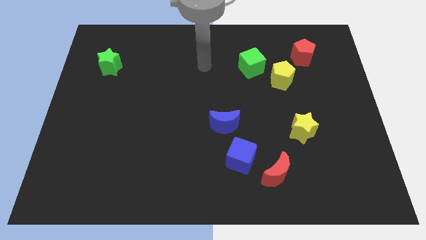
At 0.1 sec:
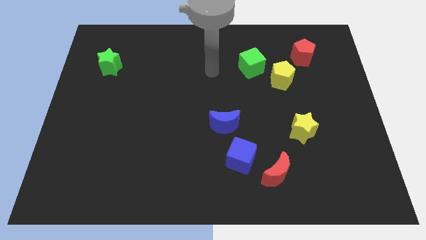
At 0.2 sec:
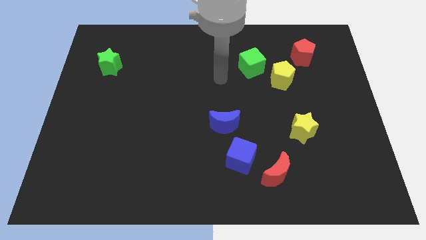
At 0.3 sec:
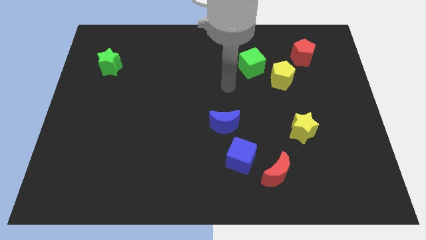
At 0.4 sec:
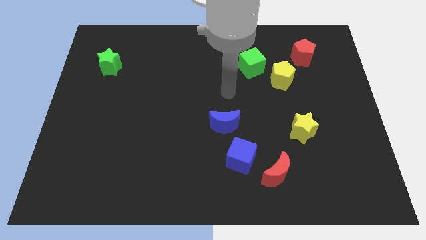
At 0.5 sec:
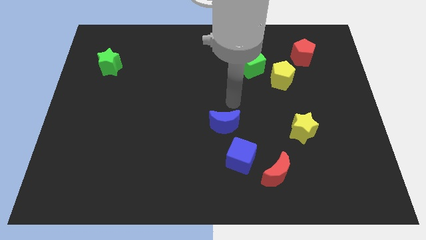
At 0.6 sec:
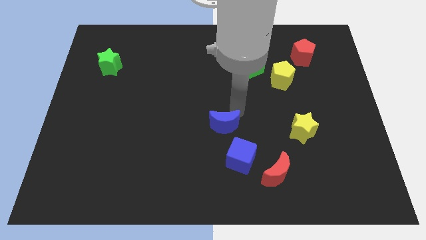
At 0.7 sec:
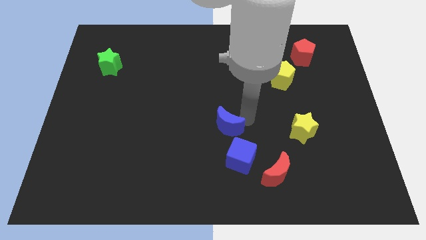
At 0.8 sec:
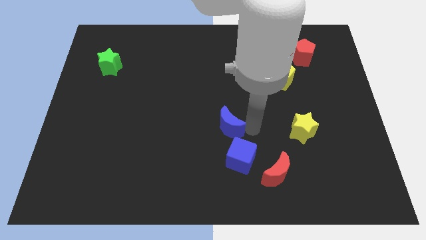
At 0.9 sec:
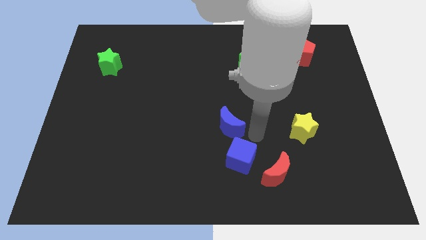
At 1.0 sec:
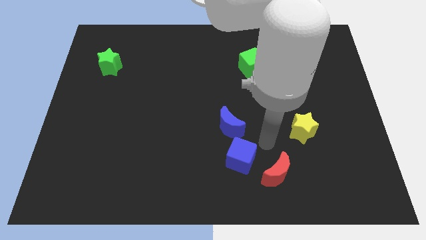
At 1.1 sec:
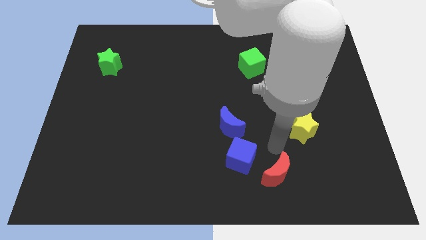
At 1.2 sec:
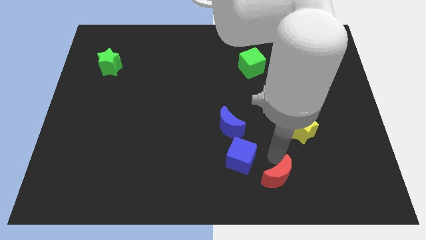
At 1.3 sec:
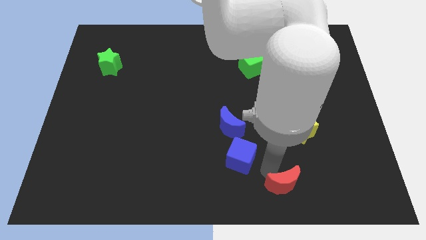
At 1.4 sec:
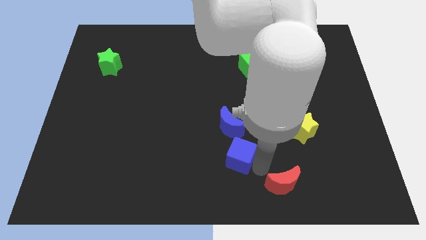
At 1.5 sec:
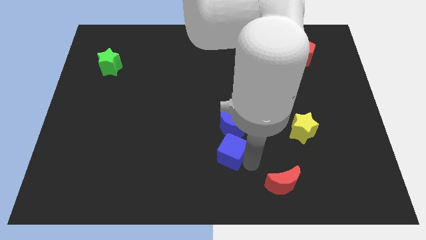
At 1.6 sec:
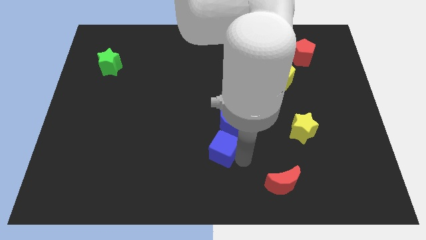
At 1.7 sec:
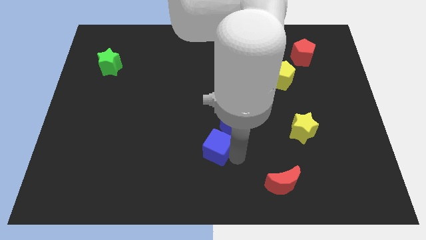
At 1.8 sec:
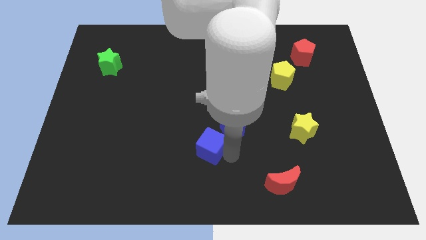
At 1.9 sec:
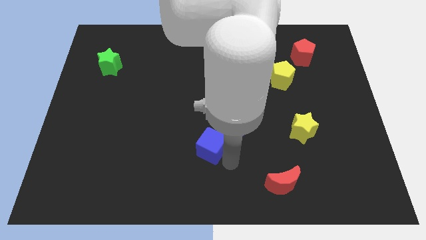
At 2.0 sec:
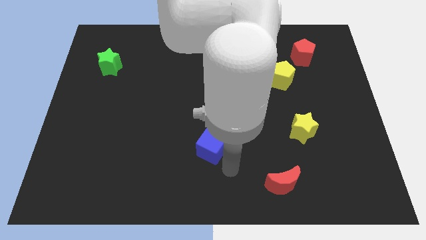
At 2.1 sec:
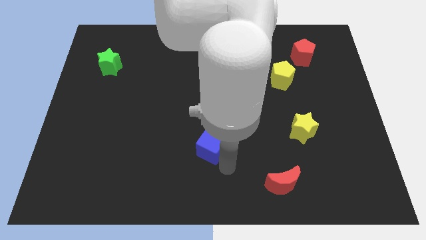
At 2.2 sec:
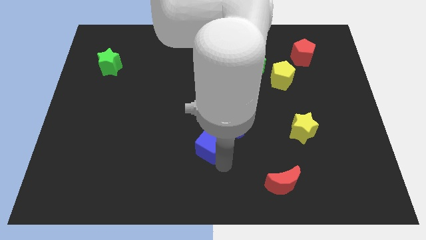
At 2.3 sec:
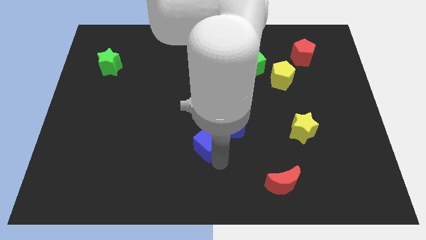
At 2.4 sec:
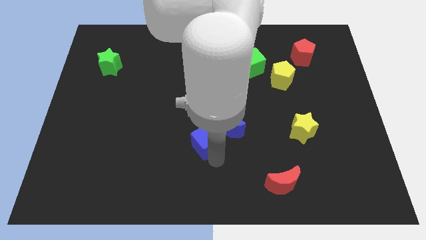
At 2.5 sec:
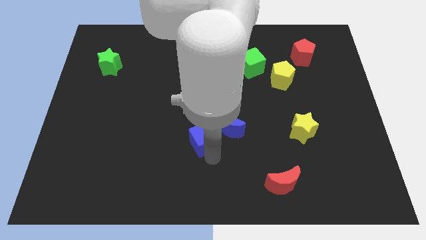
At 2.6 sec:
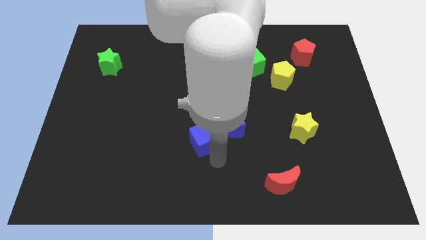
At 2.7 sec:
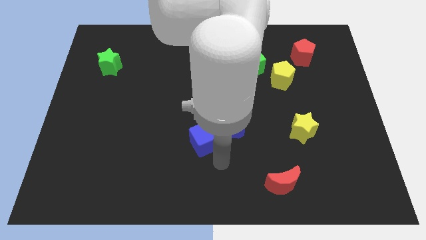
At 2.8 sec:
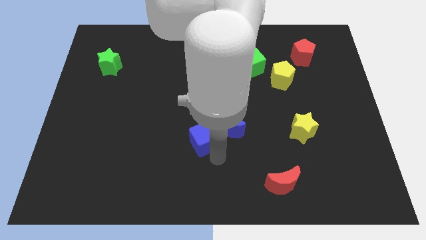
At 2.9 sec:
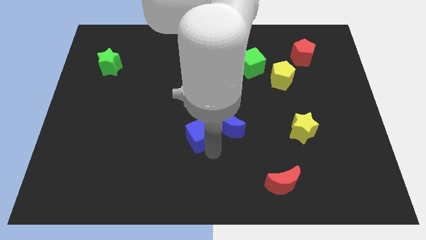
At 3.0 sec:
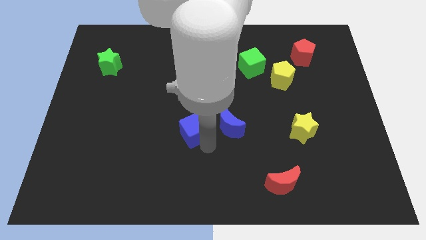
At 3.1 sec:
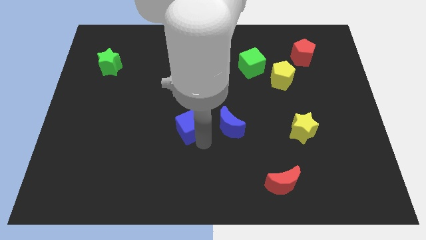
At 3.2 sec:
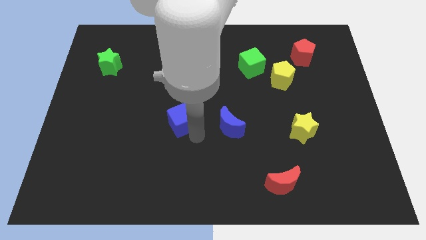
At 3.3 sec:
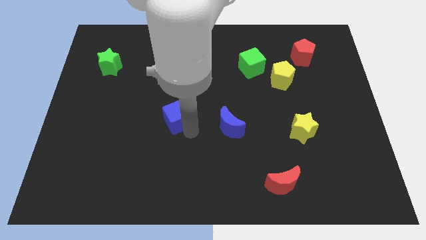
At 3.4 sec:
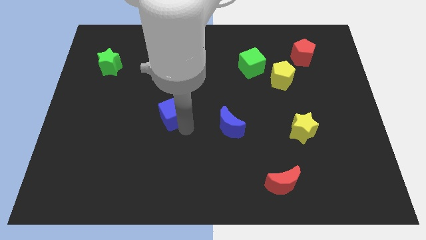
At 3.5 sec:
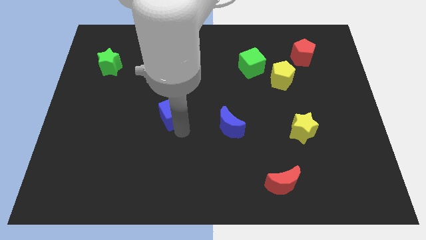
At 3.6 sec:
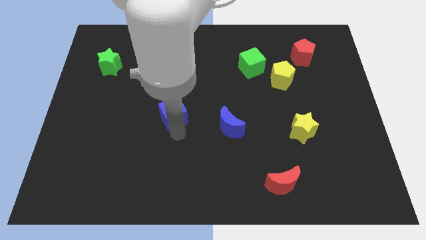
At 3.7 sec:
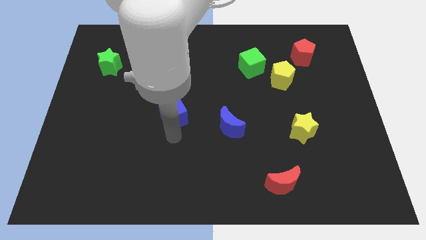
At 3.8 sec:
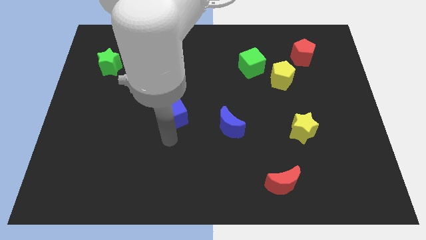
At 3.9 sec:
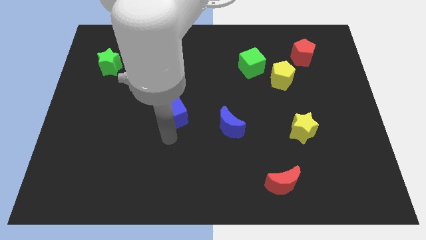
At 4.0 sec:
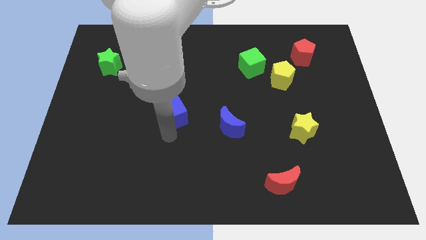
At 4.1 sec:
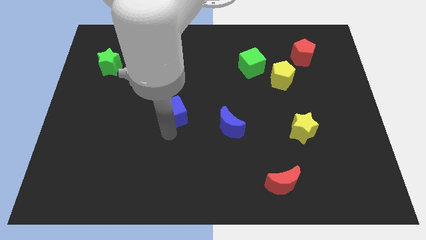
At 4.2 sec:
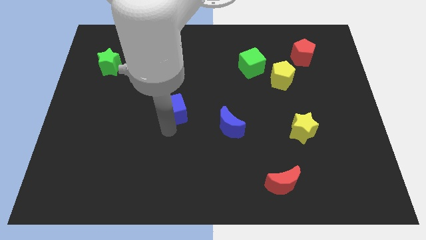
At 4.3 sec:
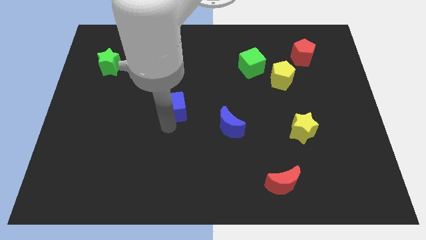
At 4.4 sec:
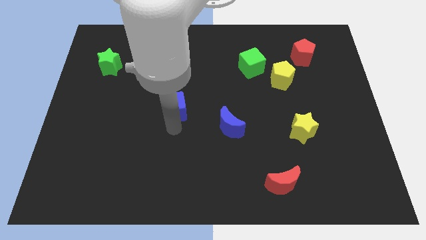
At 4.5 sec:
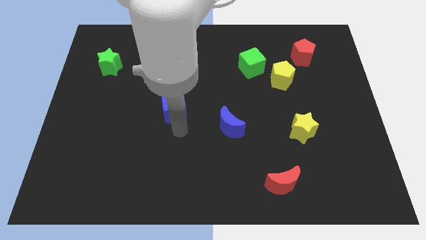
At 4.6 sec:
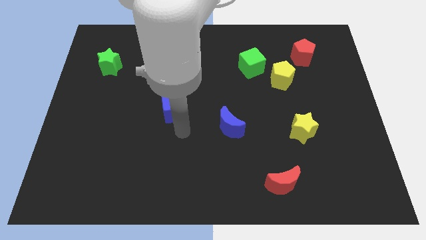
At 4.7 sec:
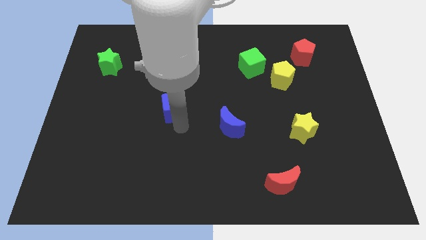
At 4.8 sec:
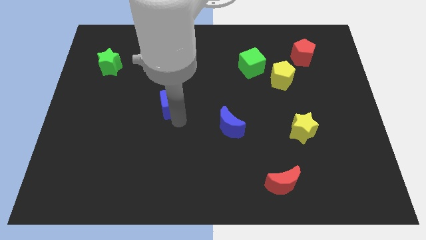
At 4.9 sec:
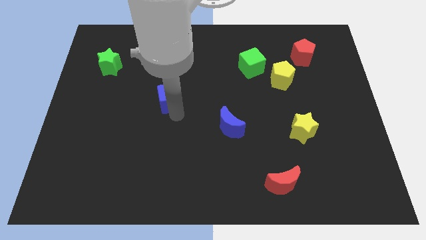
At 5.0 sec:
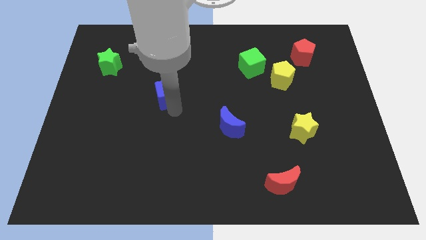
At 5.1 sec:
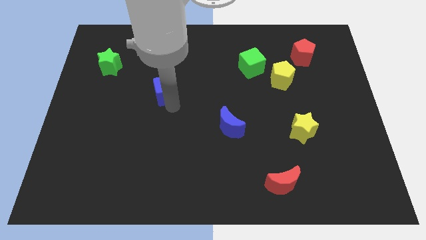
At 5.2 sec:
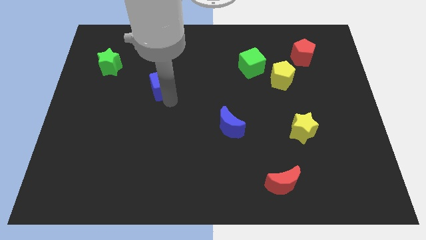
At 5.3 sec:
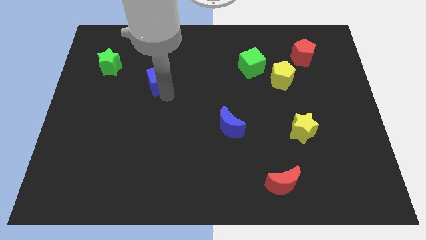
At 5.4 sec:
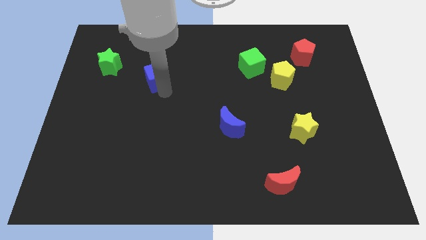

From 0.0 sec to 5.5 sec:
push the blue cube to the right of the green star

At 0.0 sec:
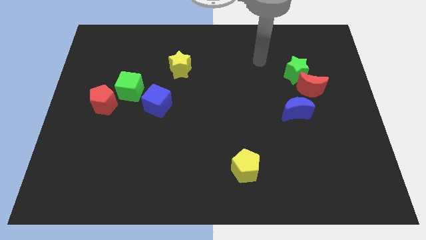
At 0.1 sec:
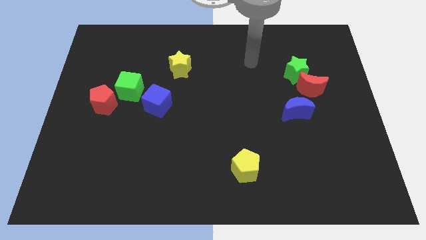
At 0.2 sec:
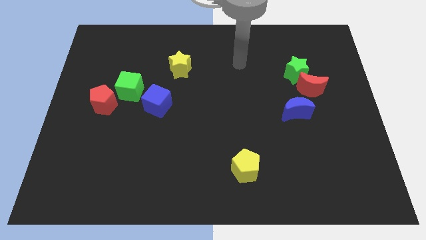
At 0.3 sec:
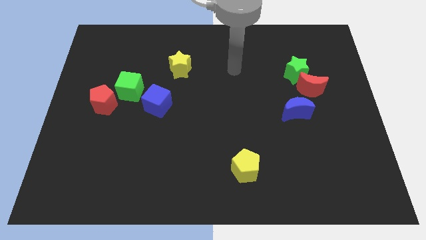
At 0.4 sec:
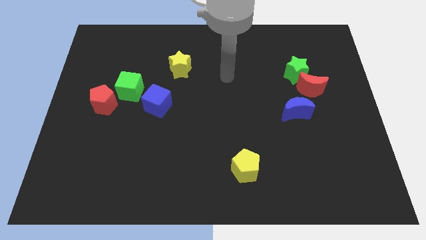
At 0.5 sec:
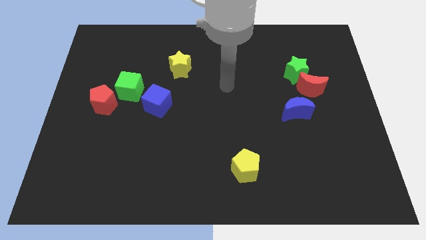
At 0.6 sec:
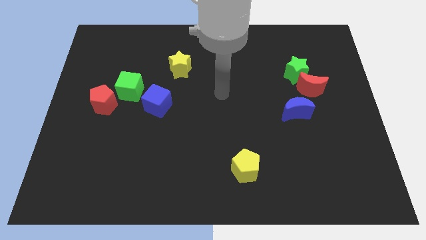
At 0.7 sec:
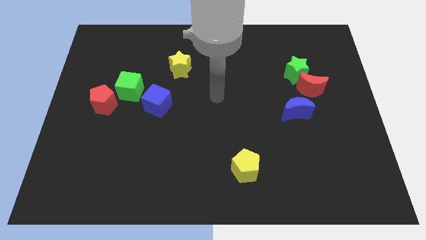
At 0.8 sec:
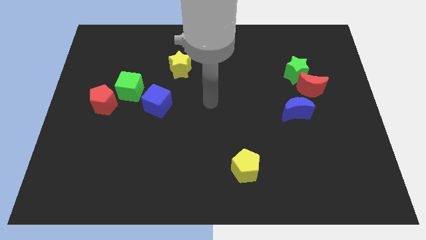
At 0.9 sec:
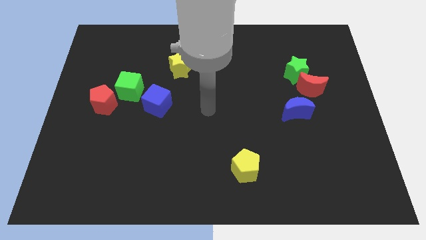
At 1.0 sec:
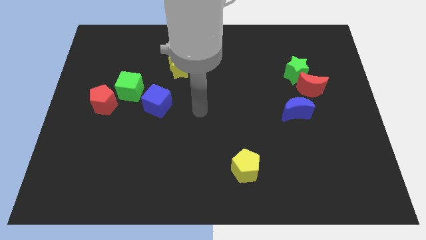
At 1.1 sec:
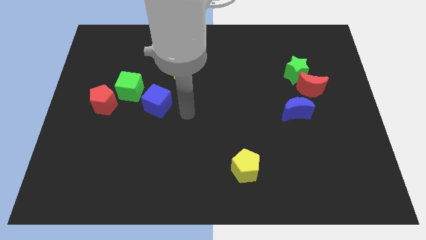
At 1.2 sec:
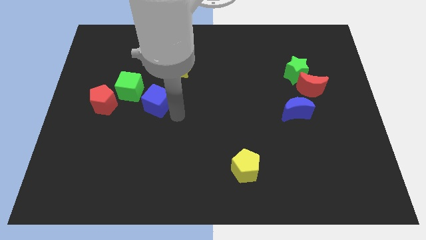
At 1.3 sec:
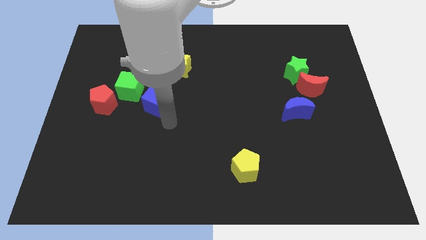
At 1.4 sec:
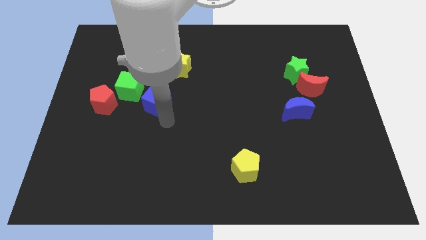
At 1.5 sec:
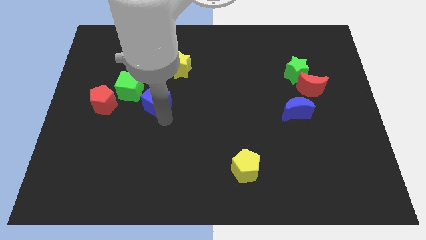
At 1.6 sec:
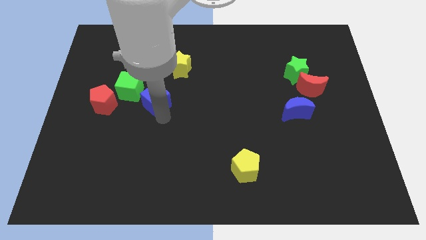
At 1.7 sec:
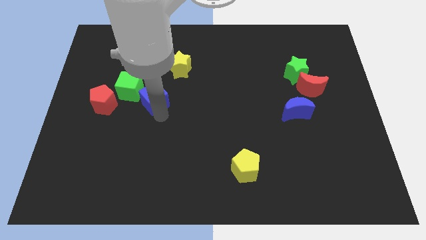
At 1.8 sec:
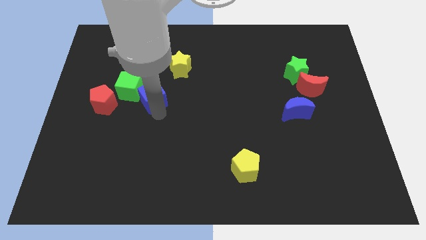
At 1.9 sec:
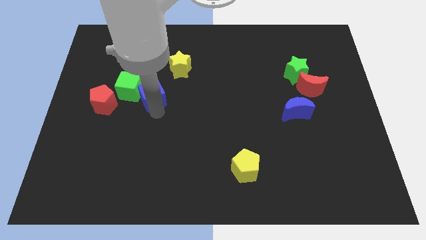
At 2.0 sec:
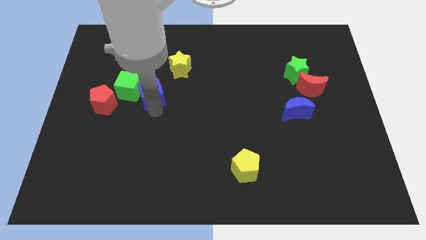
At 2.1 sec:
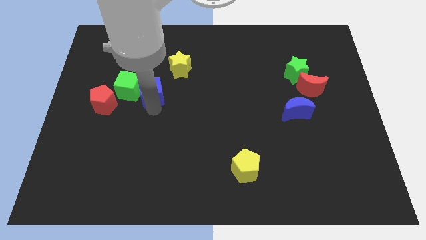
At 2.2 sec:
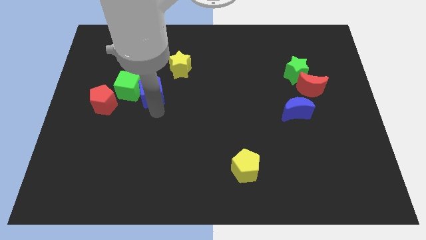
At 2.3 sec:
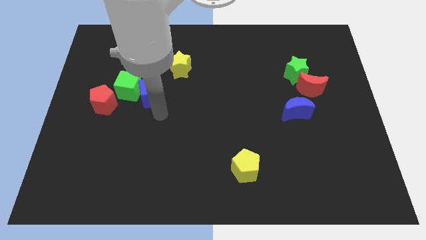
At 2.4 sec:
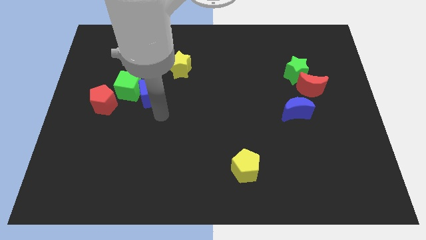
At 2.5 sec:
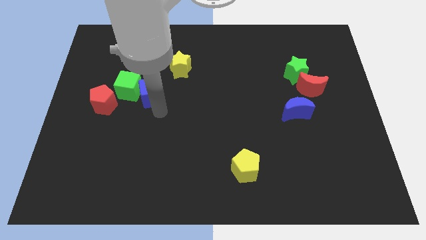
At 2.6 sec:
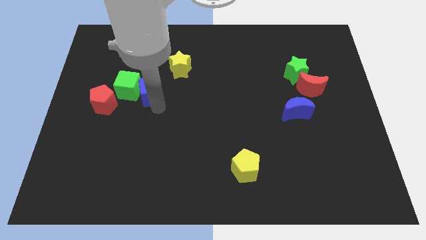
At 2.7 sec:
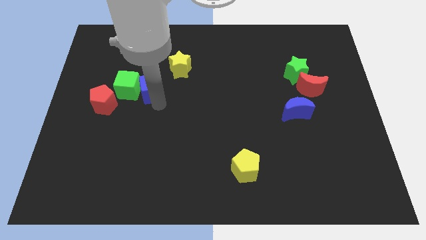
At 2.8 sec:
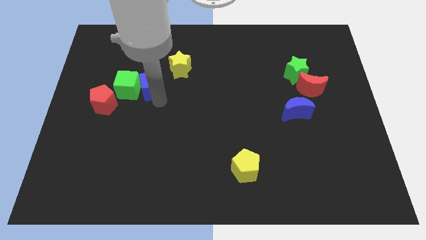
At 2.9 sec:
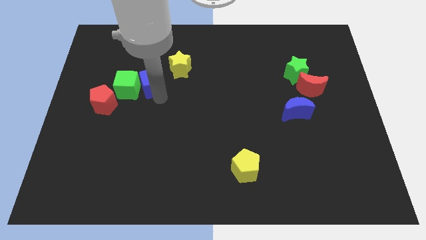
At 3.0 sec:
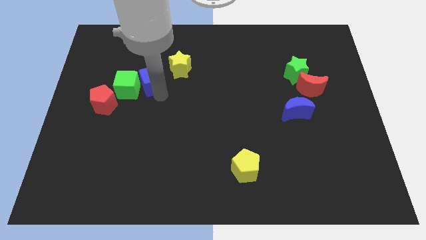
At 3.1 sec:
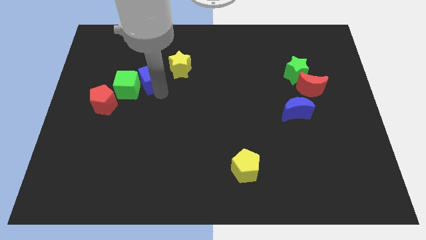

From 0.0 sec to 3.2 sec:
put the blue cube to the left of the yellow star
